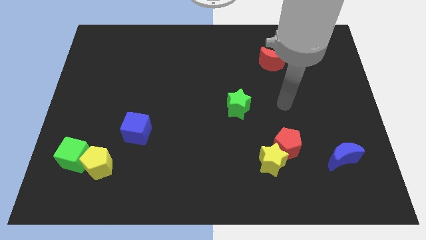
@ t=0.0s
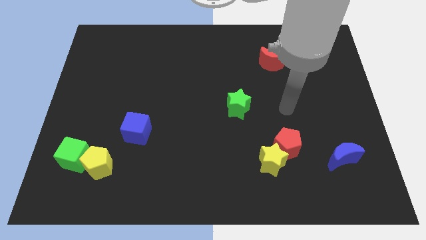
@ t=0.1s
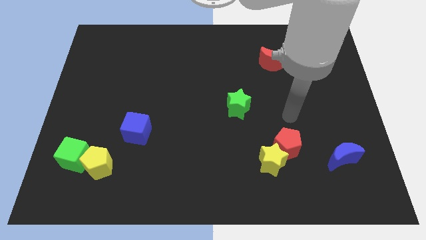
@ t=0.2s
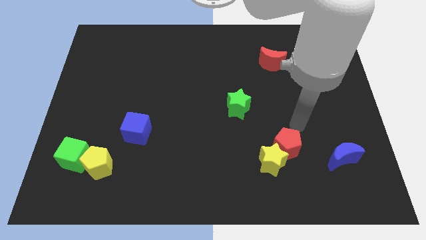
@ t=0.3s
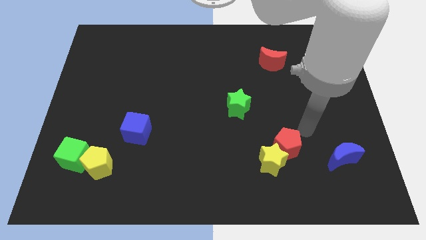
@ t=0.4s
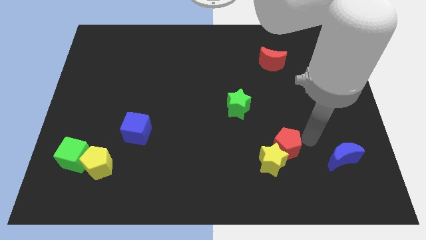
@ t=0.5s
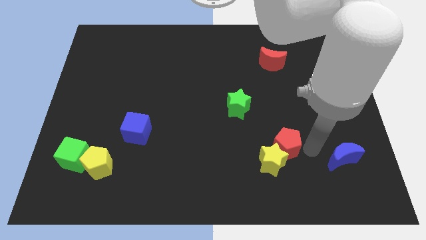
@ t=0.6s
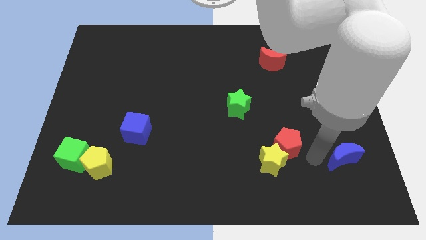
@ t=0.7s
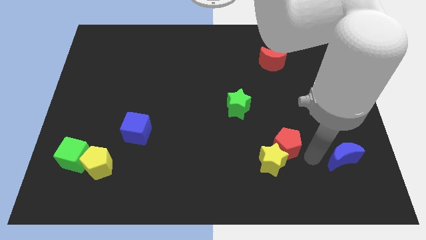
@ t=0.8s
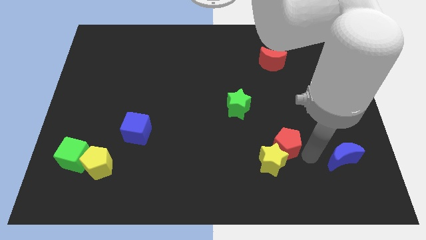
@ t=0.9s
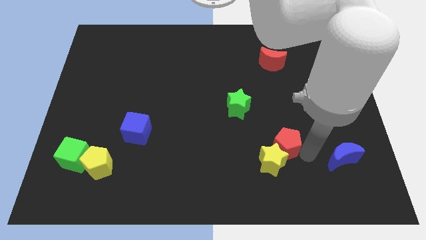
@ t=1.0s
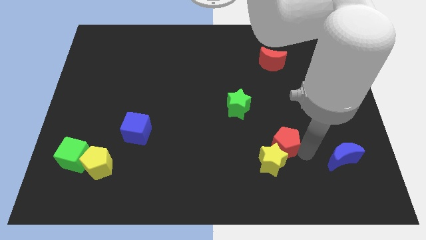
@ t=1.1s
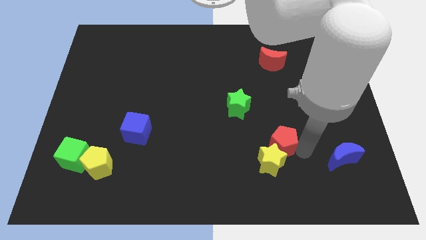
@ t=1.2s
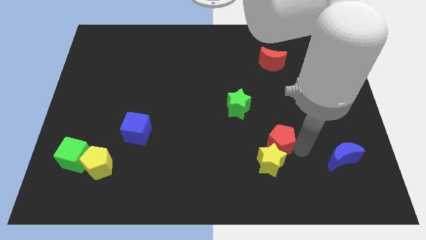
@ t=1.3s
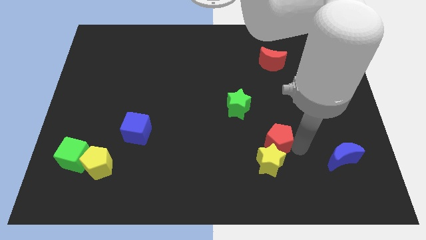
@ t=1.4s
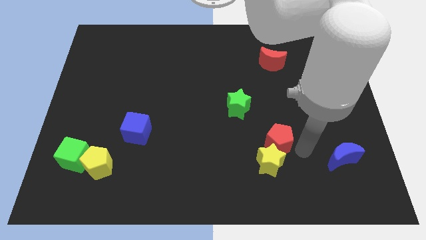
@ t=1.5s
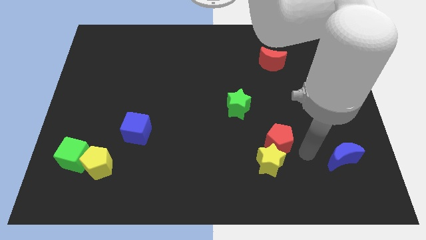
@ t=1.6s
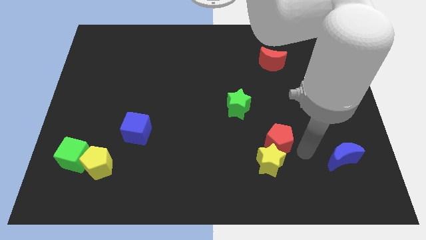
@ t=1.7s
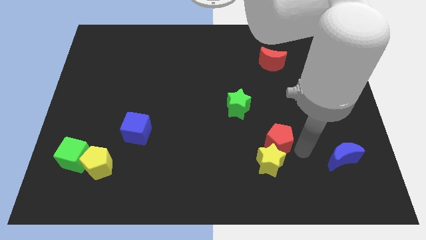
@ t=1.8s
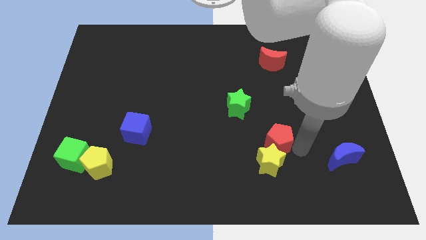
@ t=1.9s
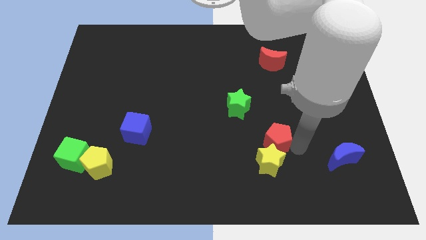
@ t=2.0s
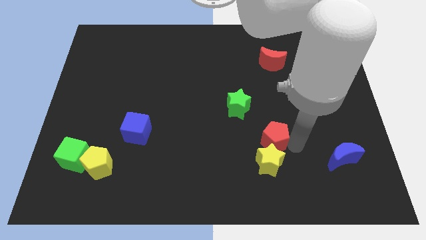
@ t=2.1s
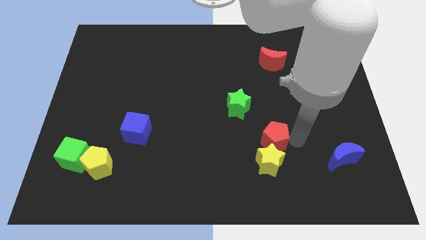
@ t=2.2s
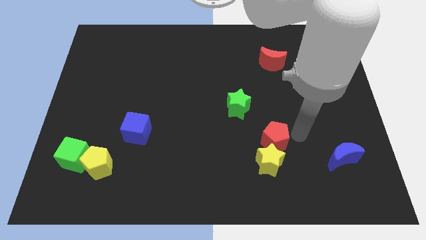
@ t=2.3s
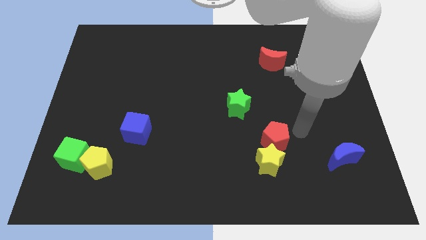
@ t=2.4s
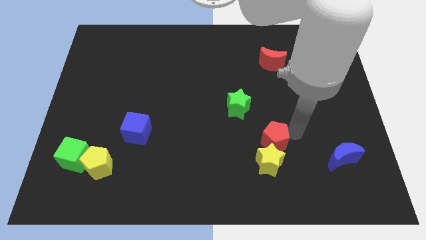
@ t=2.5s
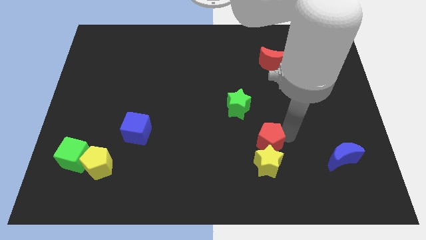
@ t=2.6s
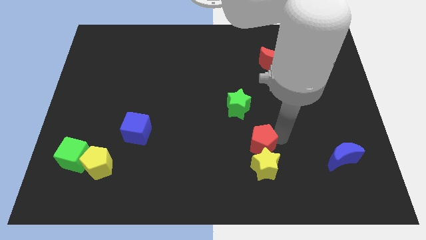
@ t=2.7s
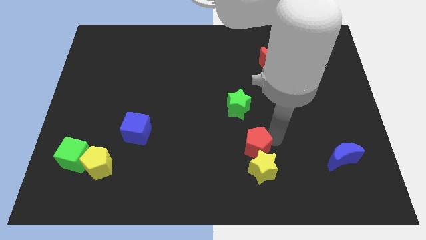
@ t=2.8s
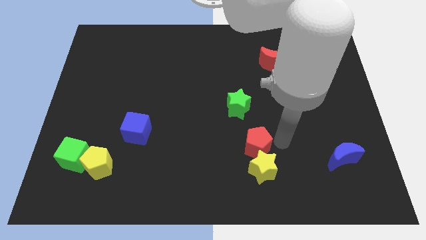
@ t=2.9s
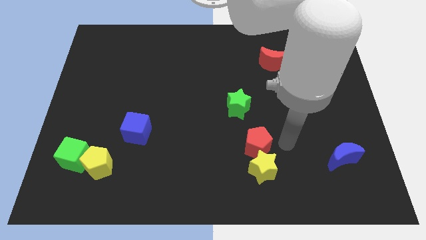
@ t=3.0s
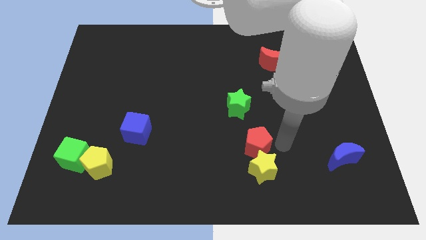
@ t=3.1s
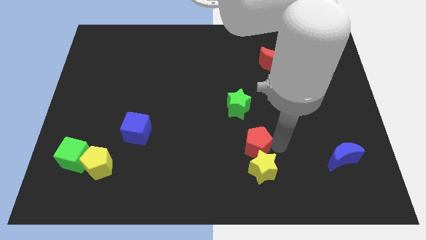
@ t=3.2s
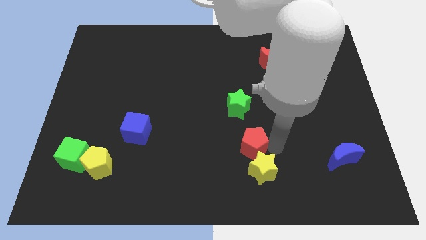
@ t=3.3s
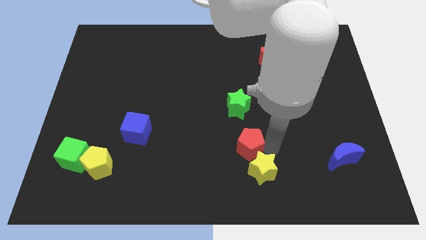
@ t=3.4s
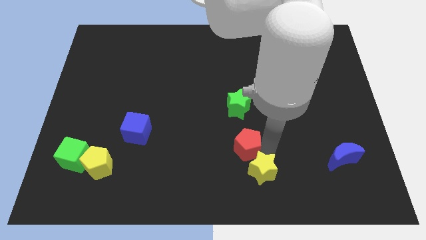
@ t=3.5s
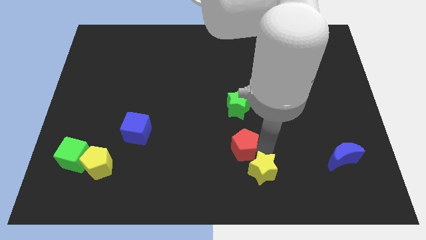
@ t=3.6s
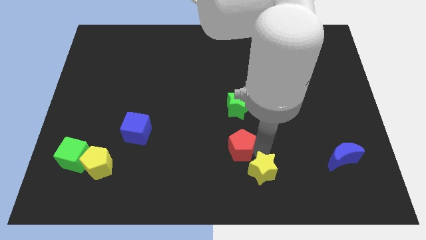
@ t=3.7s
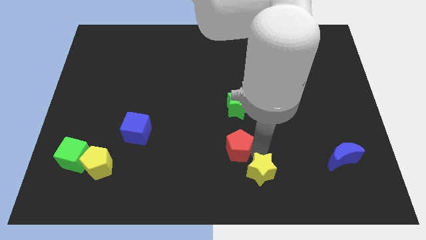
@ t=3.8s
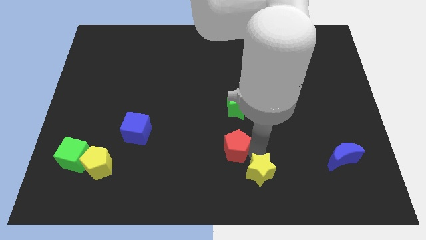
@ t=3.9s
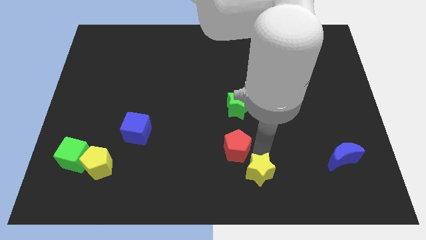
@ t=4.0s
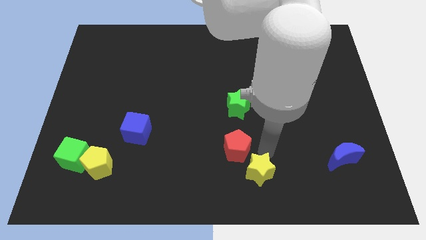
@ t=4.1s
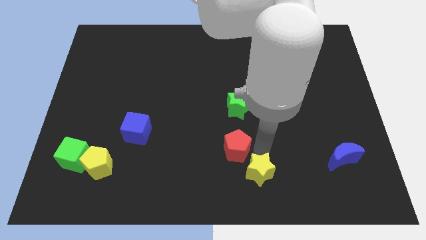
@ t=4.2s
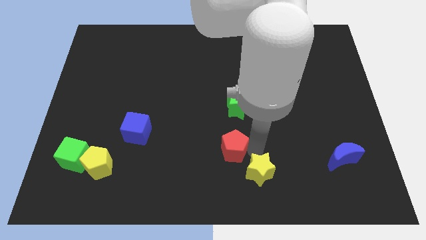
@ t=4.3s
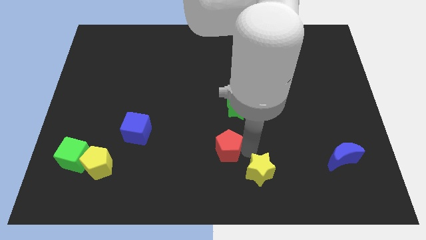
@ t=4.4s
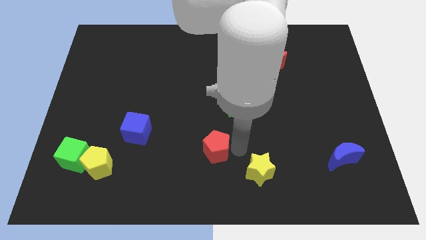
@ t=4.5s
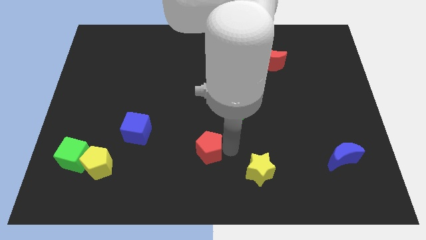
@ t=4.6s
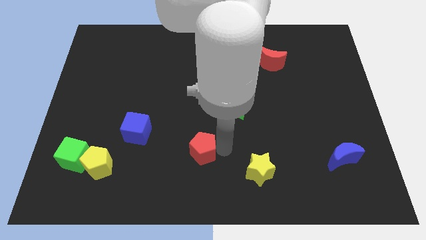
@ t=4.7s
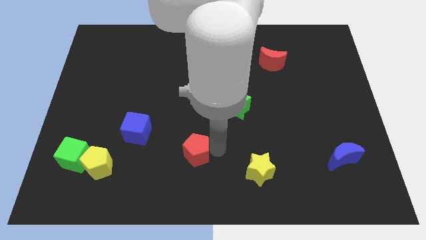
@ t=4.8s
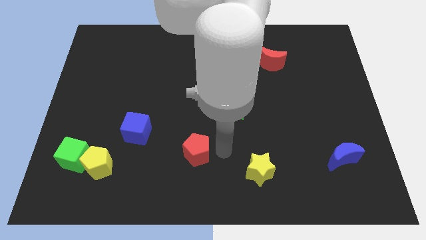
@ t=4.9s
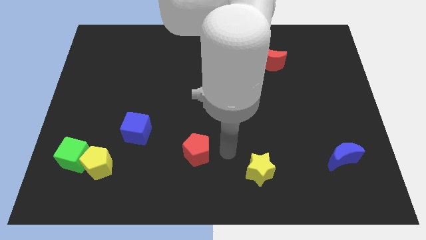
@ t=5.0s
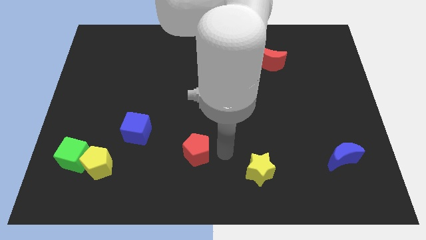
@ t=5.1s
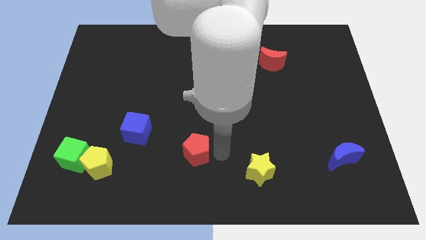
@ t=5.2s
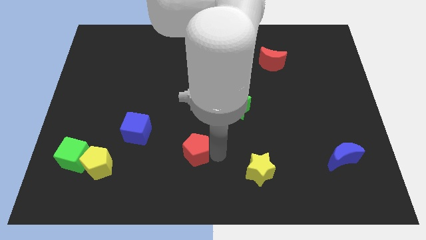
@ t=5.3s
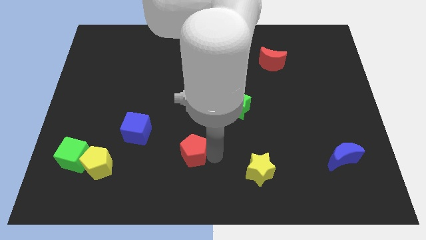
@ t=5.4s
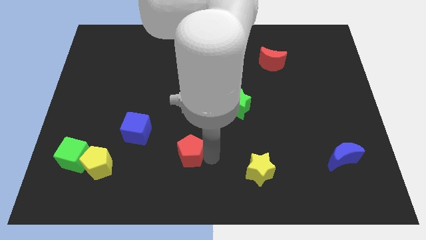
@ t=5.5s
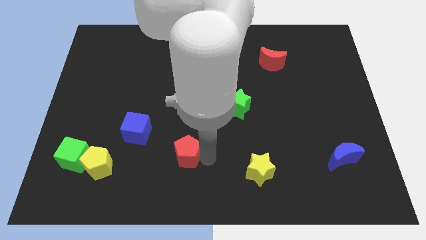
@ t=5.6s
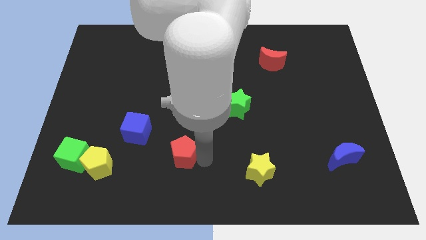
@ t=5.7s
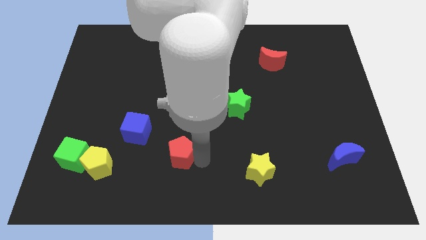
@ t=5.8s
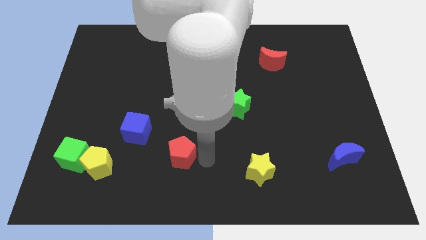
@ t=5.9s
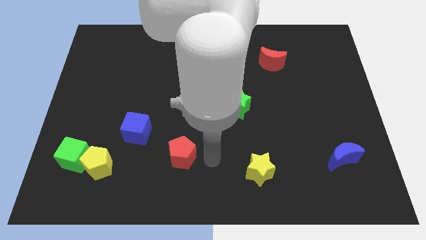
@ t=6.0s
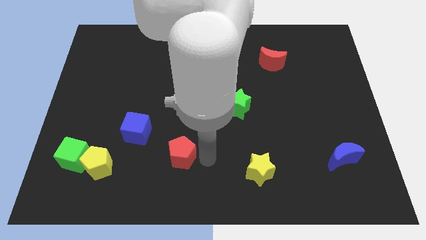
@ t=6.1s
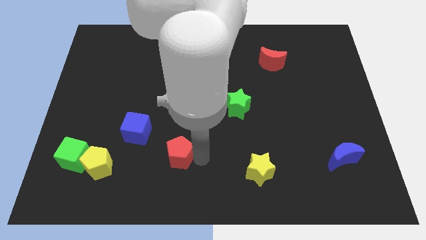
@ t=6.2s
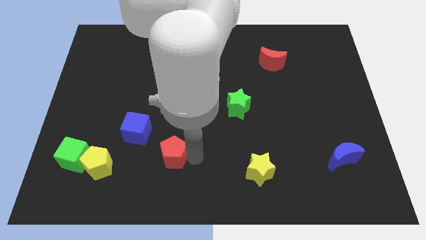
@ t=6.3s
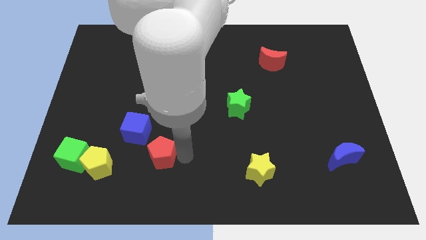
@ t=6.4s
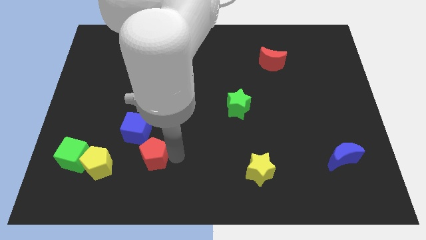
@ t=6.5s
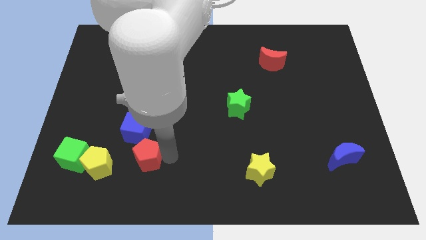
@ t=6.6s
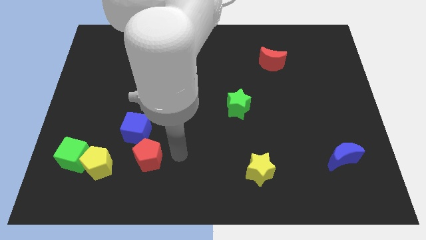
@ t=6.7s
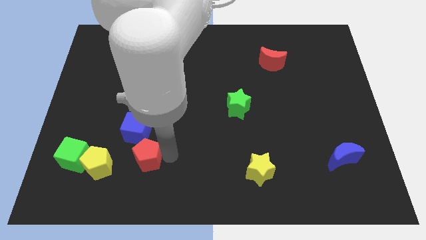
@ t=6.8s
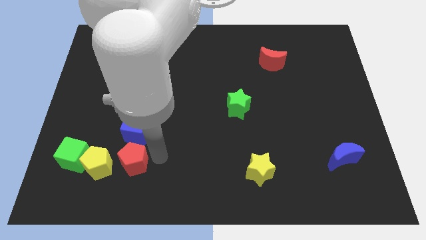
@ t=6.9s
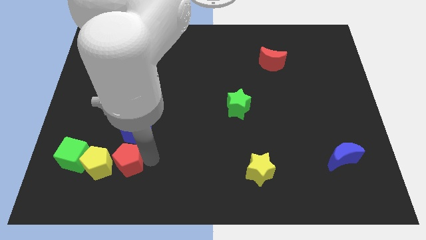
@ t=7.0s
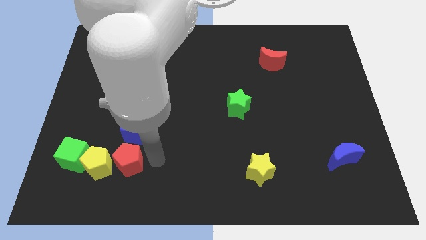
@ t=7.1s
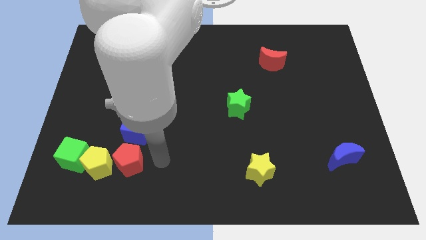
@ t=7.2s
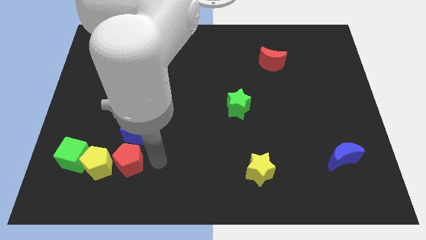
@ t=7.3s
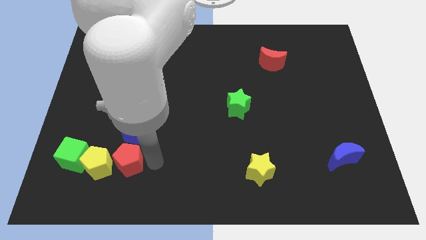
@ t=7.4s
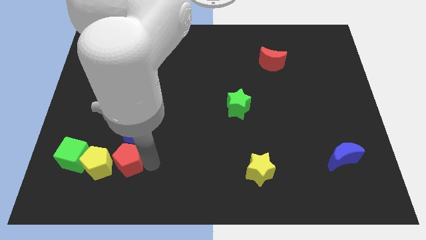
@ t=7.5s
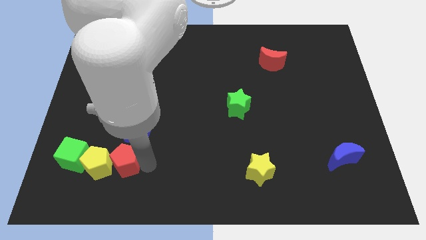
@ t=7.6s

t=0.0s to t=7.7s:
push the red pentagon next to the yellow pentagon

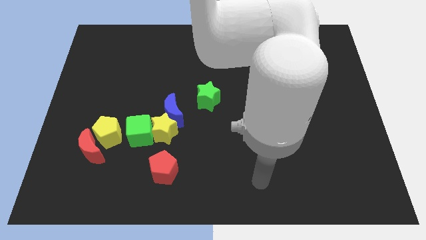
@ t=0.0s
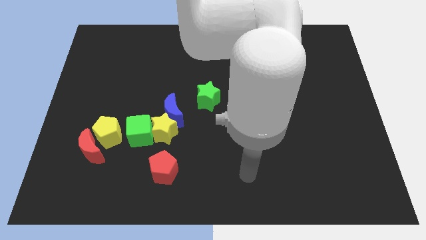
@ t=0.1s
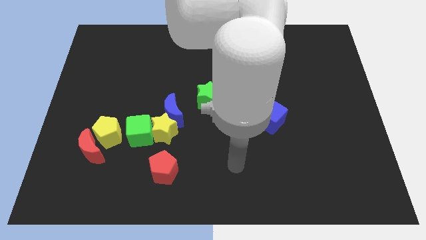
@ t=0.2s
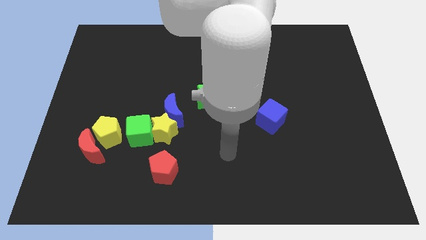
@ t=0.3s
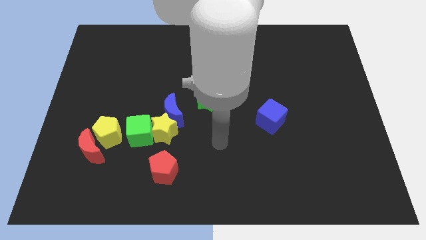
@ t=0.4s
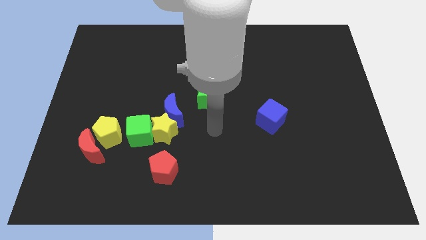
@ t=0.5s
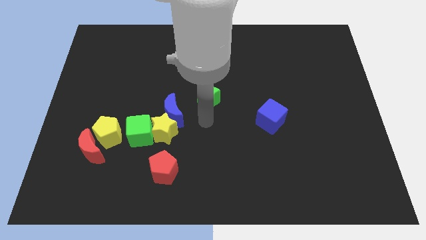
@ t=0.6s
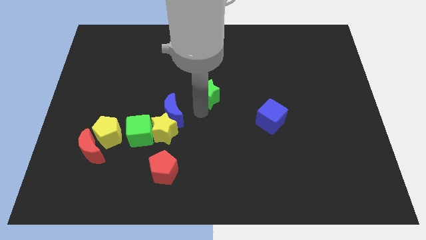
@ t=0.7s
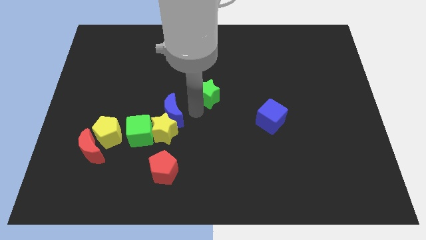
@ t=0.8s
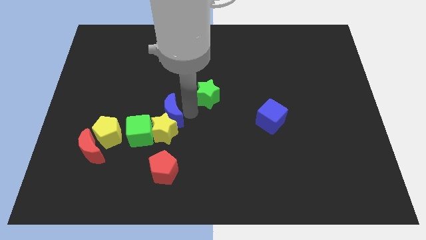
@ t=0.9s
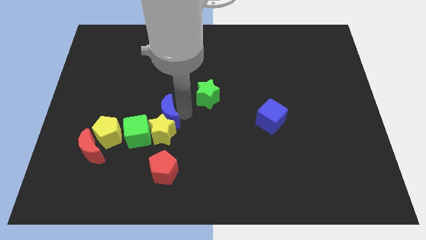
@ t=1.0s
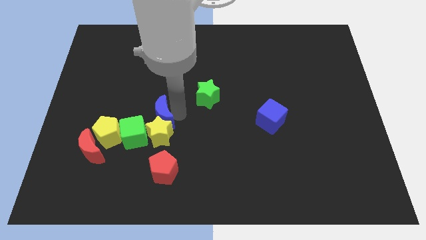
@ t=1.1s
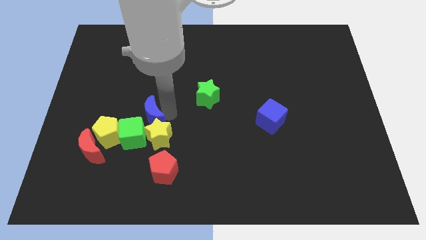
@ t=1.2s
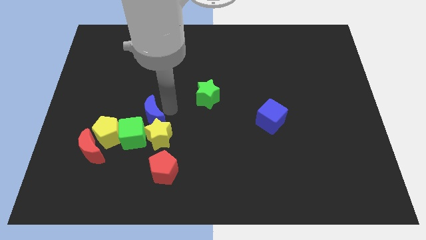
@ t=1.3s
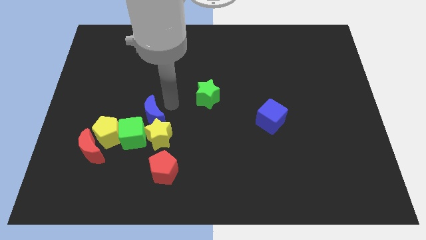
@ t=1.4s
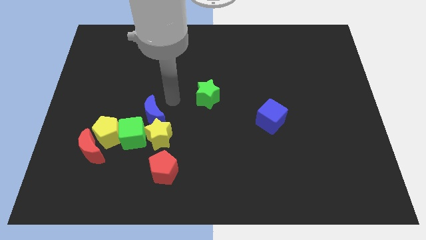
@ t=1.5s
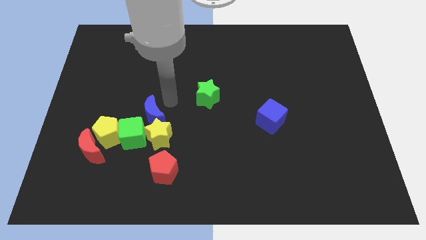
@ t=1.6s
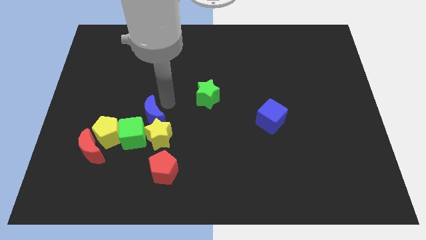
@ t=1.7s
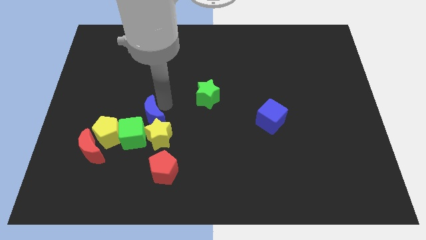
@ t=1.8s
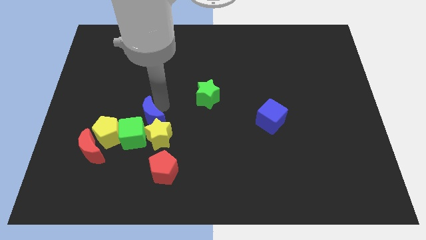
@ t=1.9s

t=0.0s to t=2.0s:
put the blue moon towards the green cube
